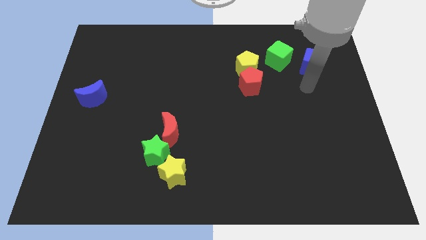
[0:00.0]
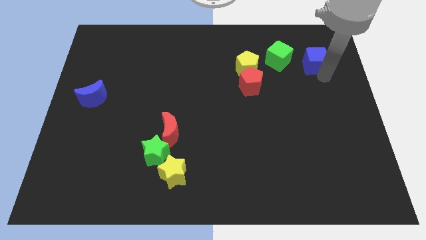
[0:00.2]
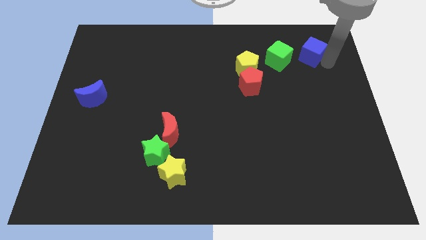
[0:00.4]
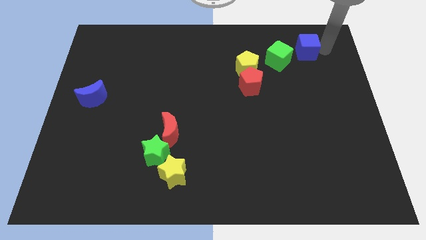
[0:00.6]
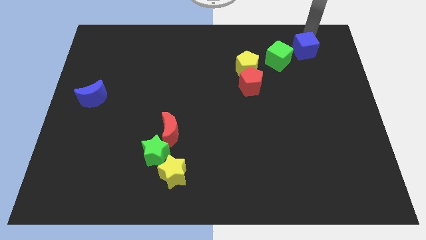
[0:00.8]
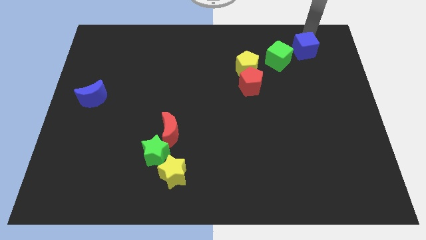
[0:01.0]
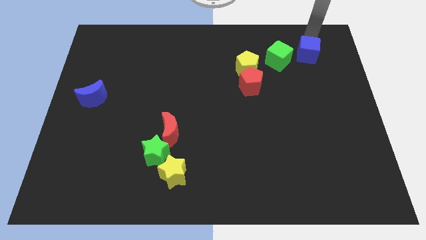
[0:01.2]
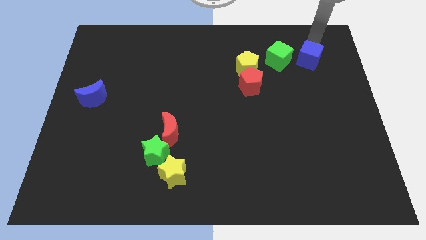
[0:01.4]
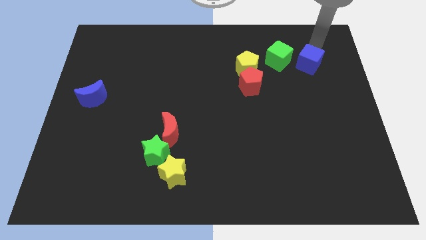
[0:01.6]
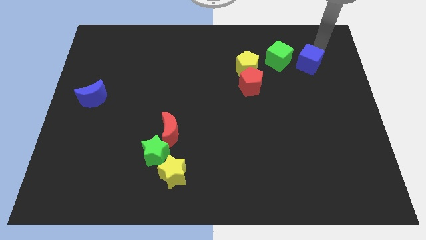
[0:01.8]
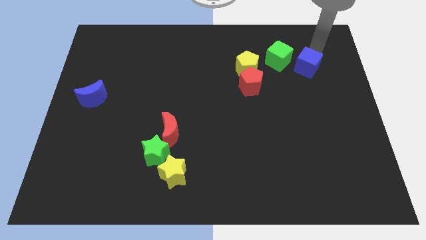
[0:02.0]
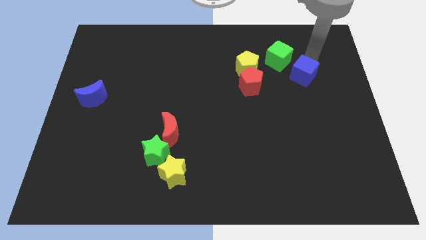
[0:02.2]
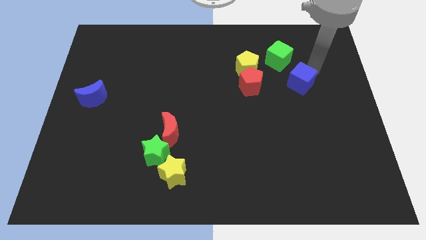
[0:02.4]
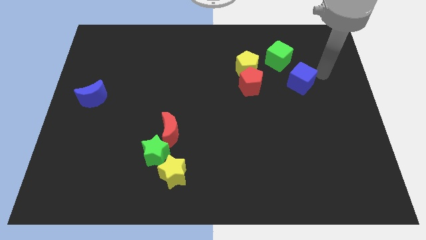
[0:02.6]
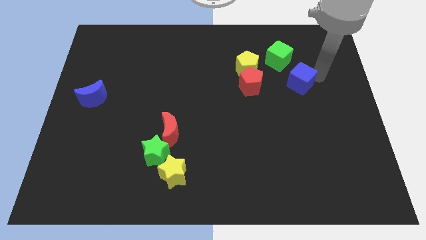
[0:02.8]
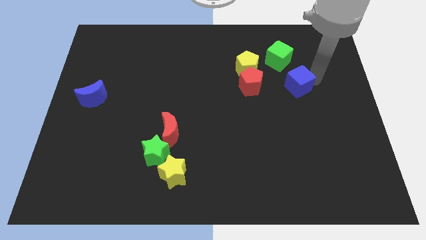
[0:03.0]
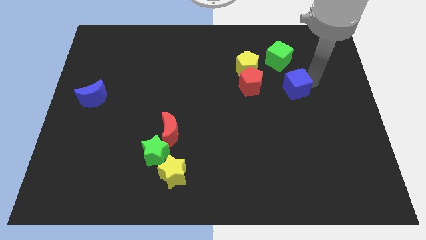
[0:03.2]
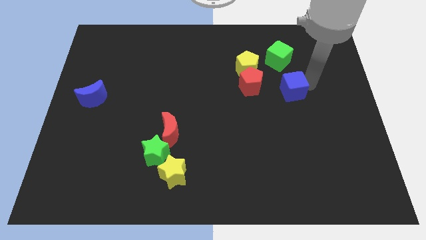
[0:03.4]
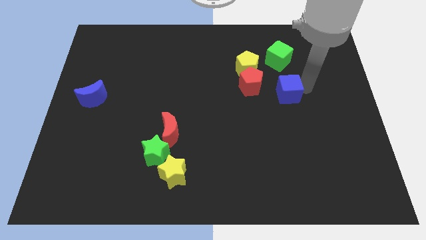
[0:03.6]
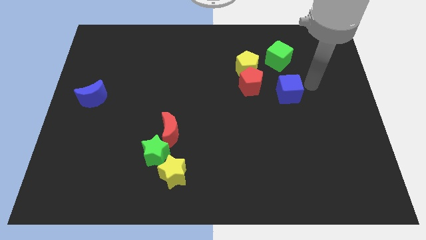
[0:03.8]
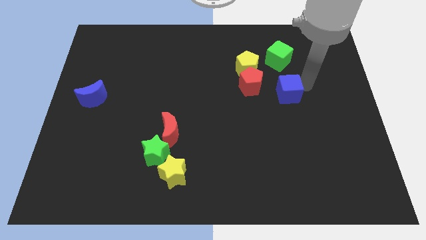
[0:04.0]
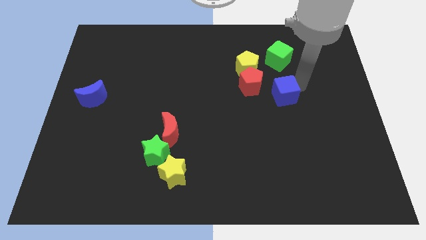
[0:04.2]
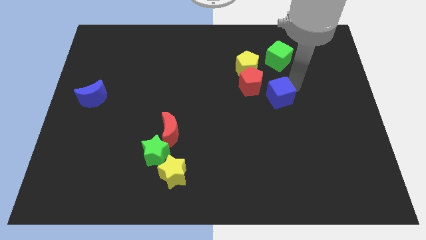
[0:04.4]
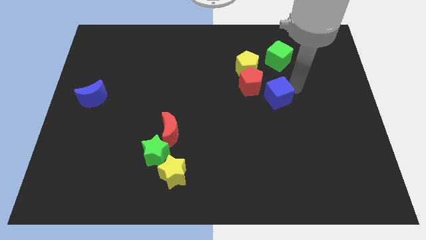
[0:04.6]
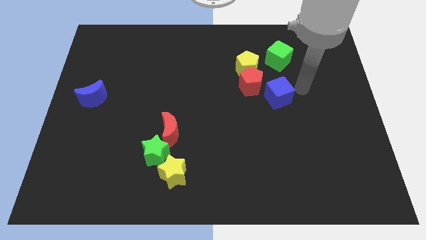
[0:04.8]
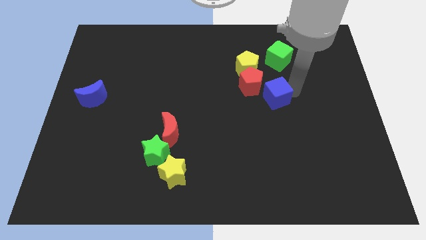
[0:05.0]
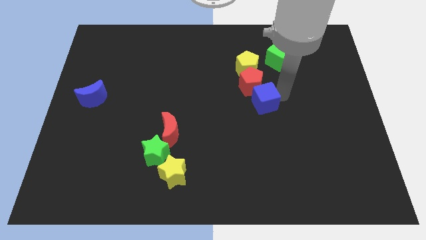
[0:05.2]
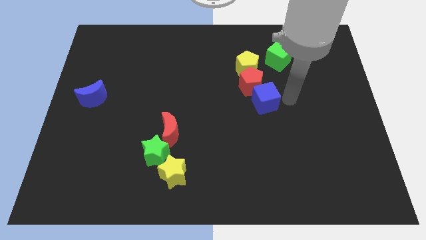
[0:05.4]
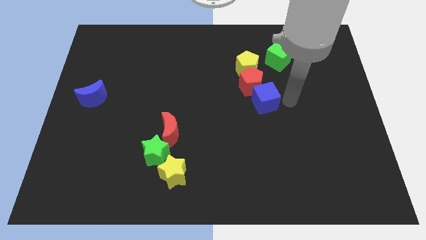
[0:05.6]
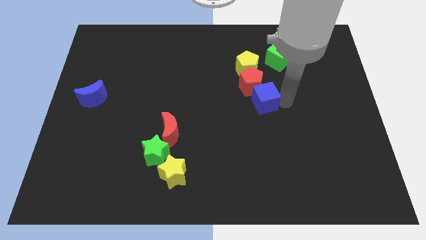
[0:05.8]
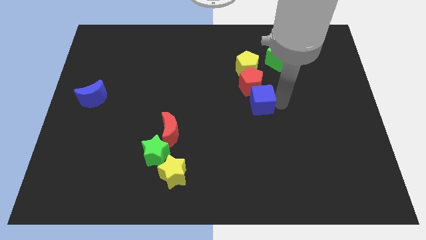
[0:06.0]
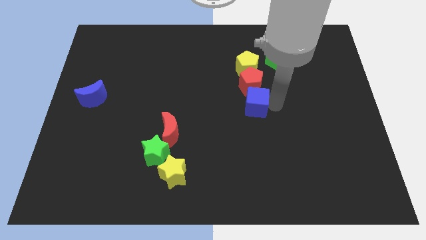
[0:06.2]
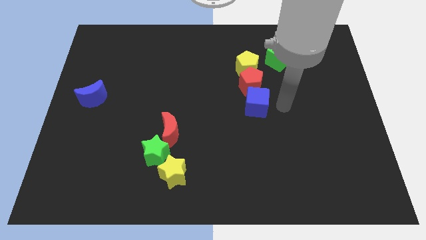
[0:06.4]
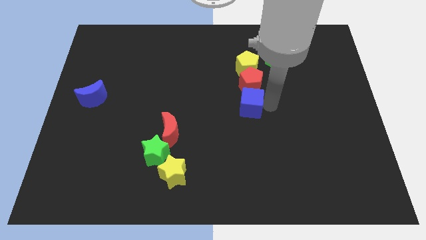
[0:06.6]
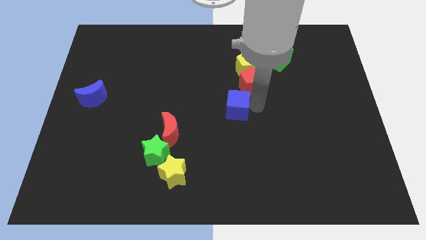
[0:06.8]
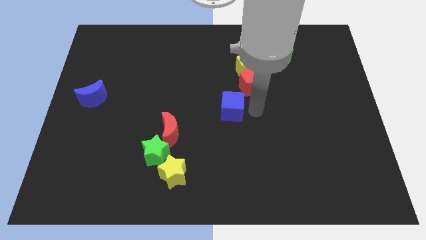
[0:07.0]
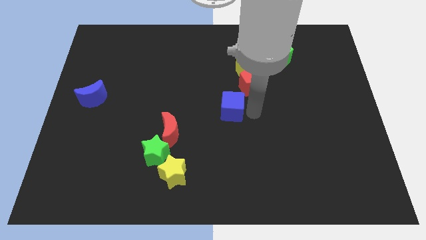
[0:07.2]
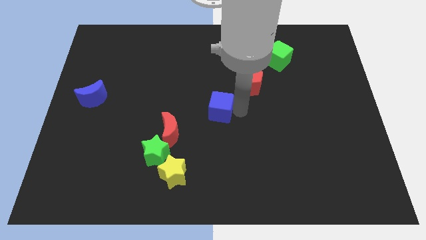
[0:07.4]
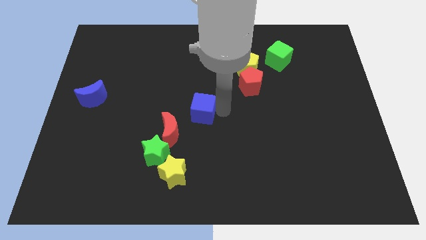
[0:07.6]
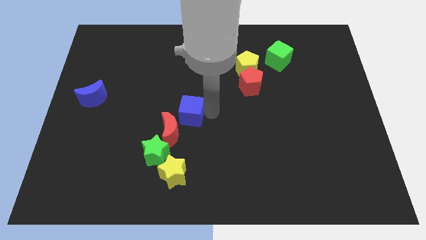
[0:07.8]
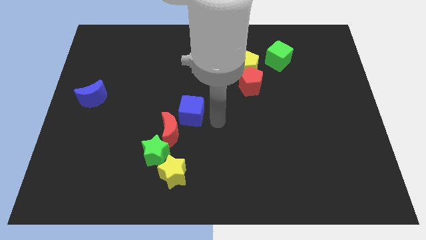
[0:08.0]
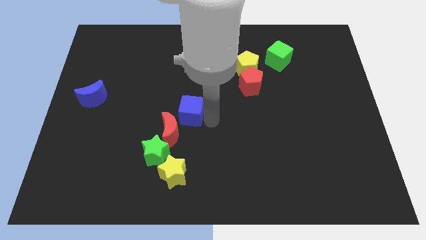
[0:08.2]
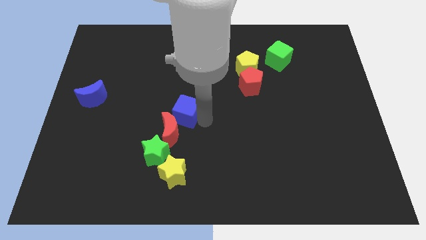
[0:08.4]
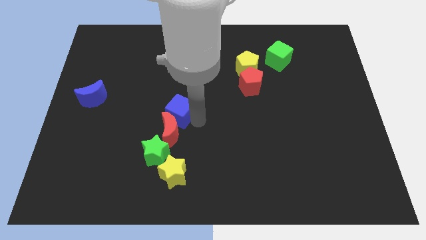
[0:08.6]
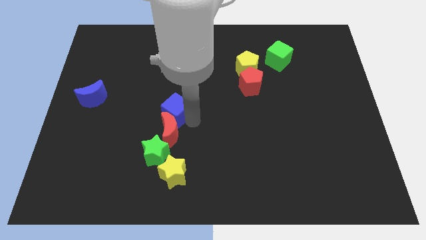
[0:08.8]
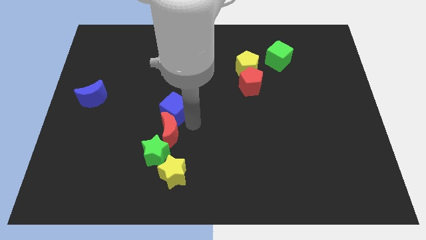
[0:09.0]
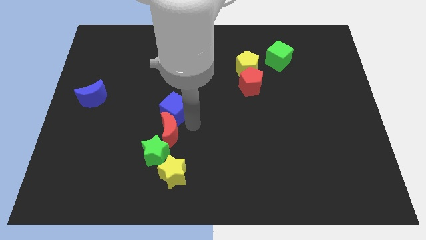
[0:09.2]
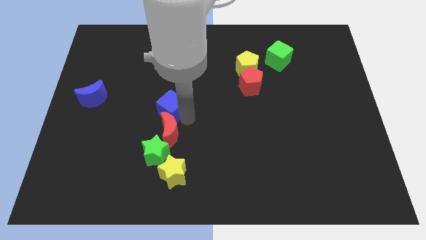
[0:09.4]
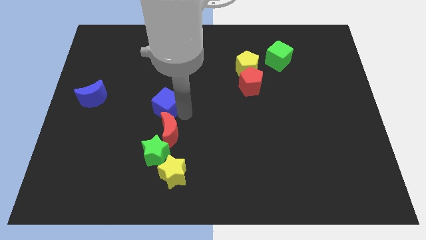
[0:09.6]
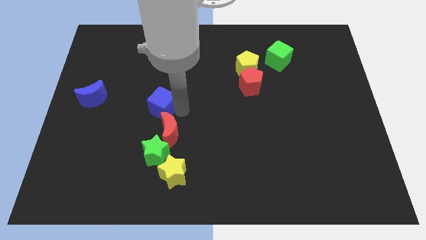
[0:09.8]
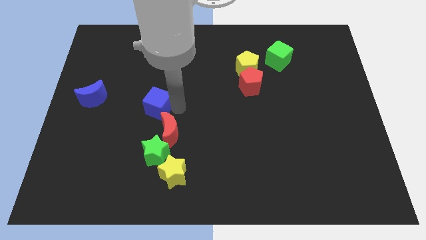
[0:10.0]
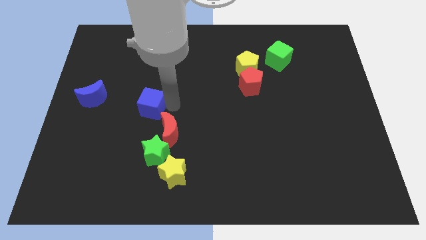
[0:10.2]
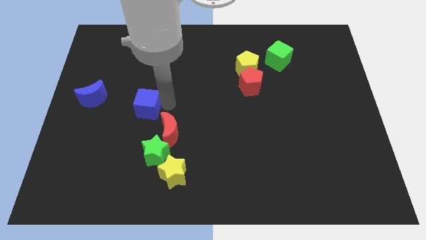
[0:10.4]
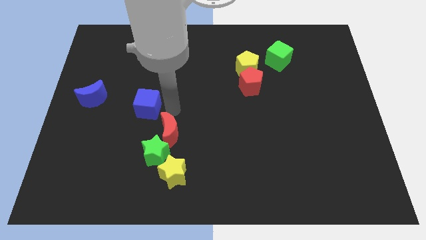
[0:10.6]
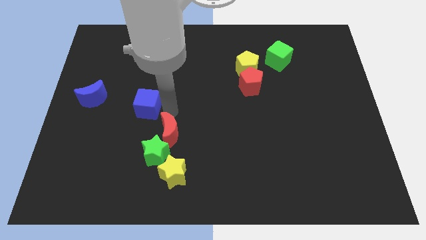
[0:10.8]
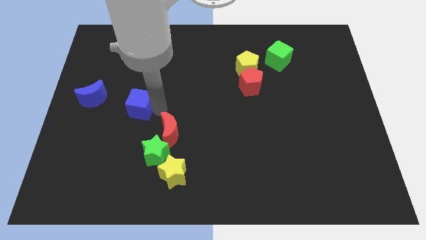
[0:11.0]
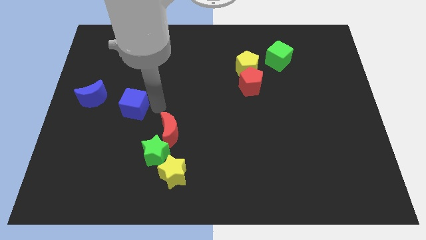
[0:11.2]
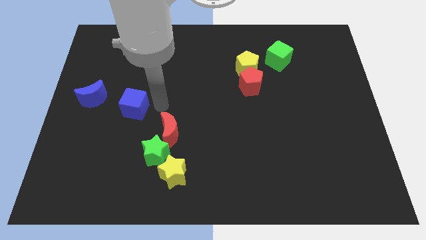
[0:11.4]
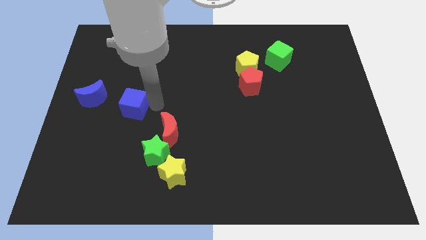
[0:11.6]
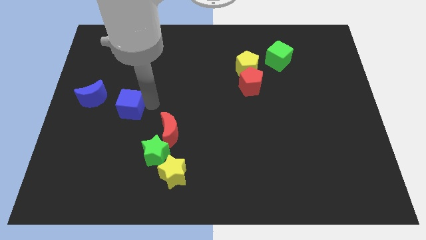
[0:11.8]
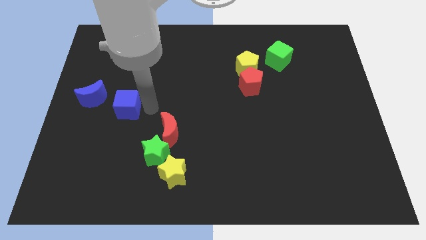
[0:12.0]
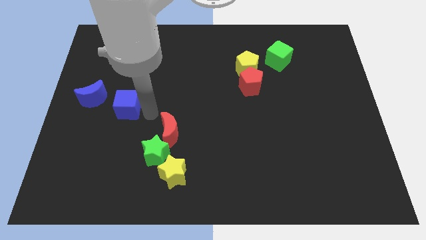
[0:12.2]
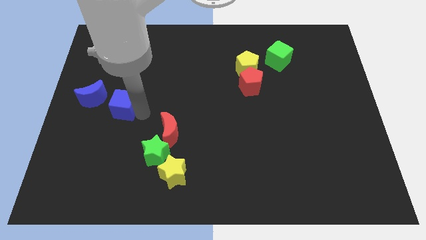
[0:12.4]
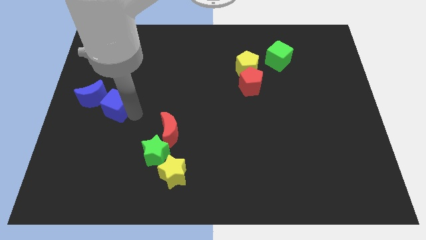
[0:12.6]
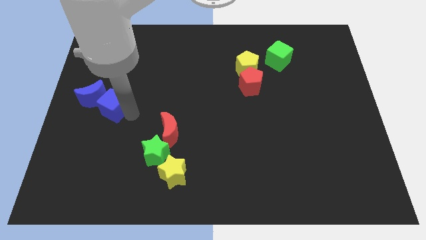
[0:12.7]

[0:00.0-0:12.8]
move the blue cube close to the blue moon

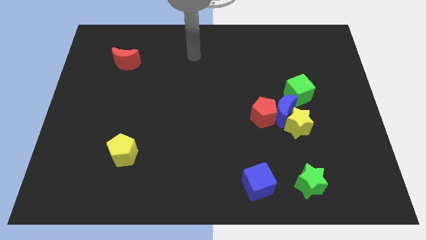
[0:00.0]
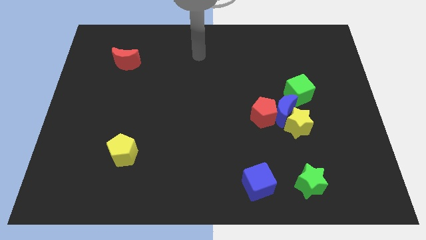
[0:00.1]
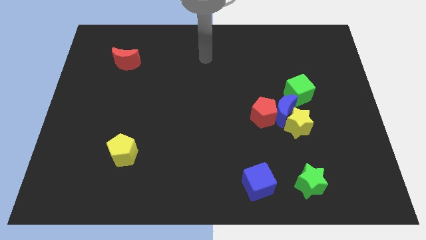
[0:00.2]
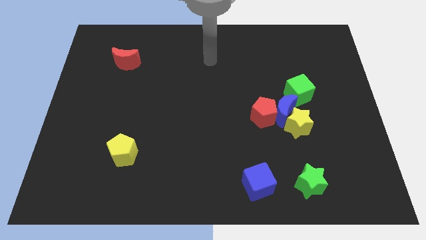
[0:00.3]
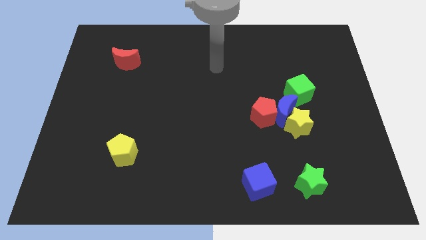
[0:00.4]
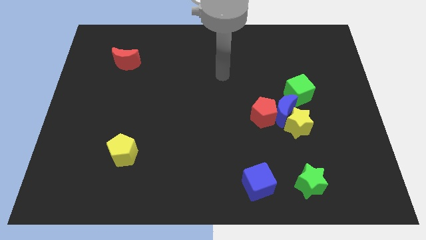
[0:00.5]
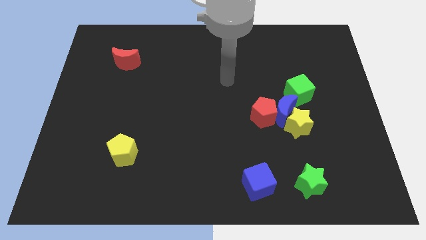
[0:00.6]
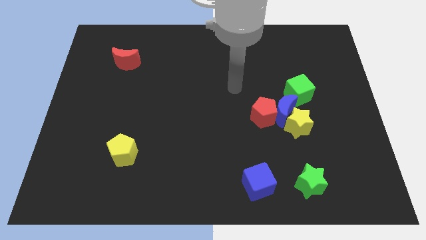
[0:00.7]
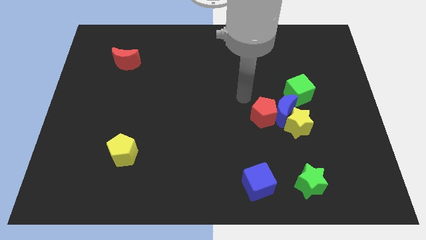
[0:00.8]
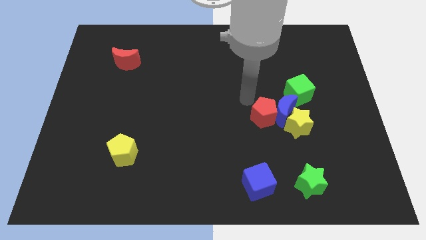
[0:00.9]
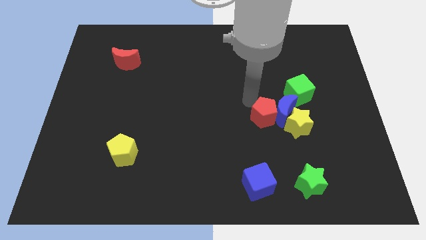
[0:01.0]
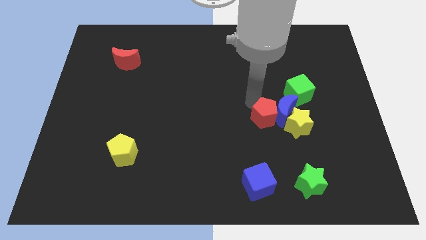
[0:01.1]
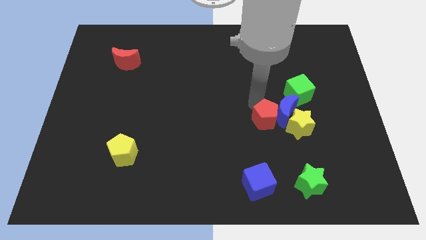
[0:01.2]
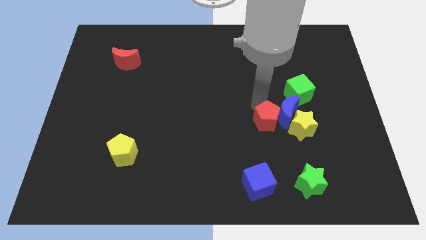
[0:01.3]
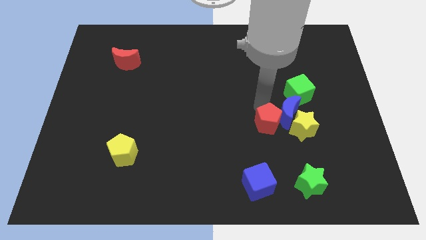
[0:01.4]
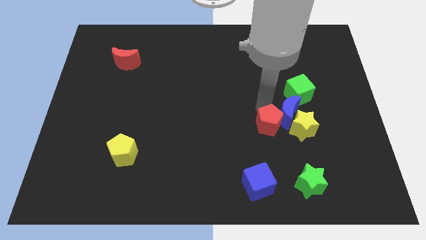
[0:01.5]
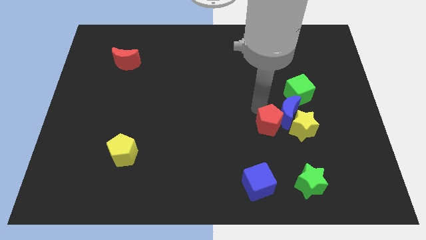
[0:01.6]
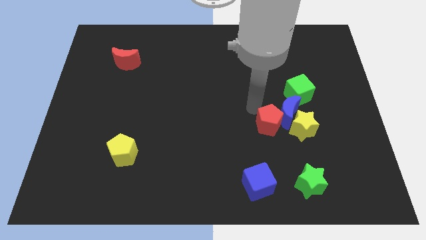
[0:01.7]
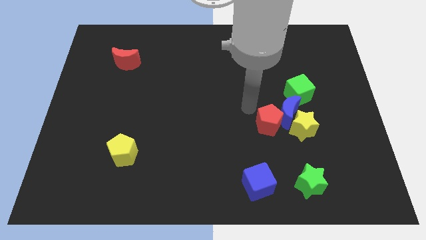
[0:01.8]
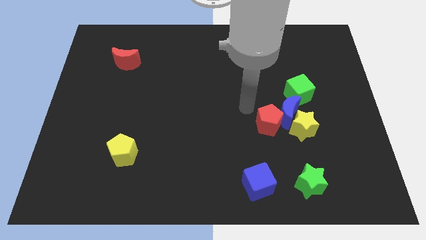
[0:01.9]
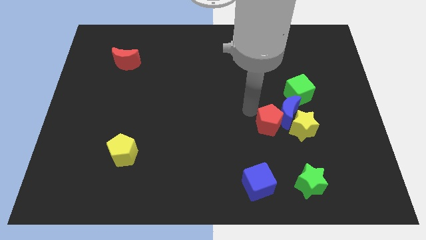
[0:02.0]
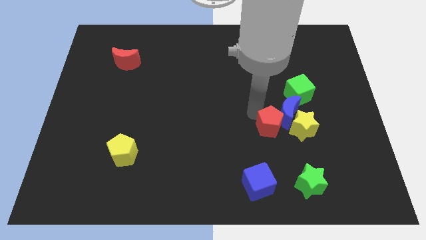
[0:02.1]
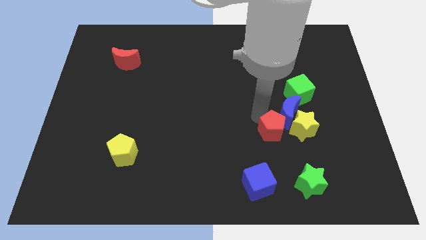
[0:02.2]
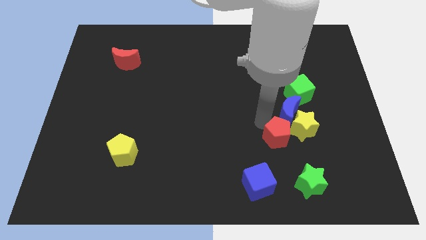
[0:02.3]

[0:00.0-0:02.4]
put the red pentagon close to the yellow star
